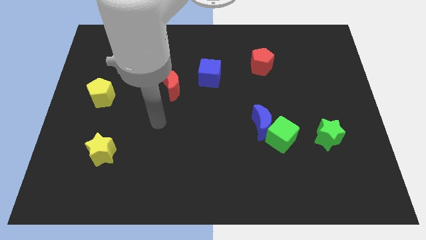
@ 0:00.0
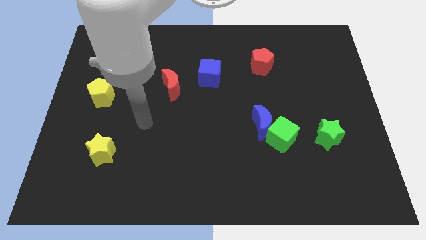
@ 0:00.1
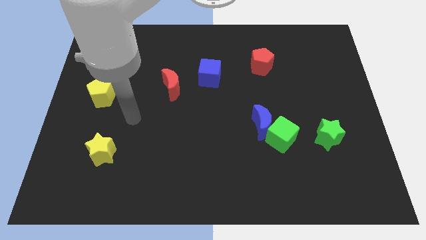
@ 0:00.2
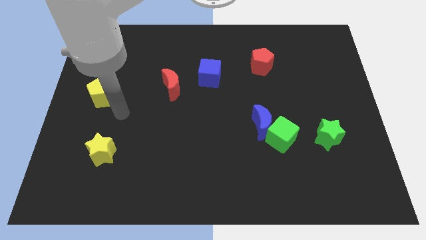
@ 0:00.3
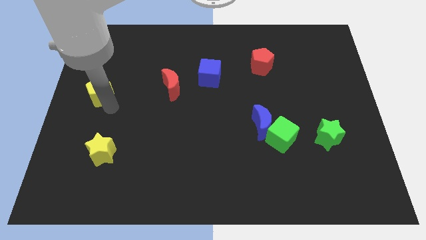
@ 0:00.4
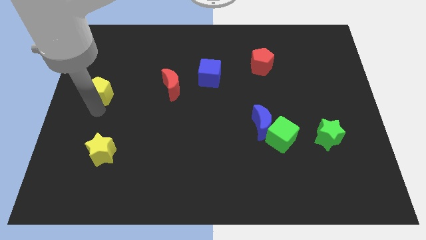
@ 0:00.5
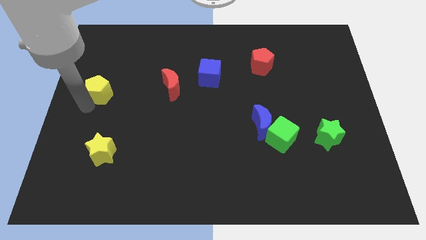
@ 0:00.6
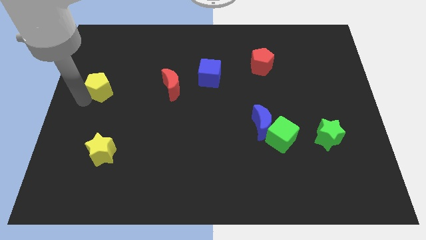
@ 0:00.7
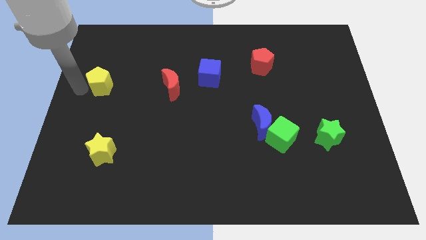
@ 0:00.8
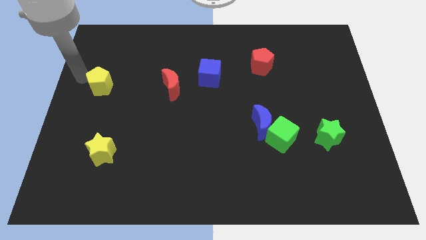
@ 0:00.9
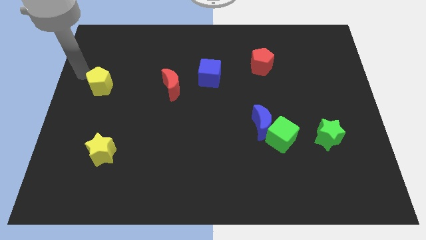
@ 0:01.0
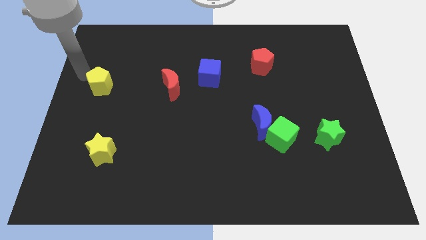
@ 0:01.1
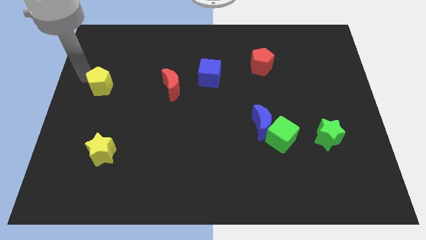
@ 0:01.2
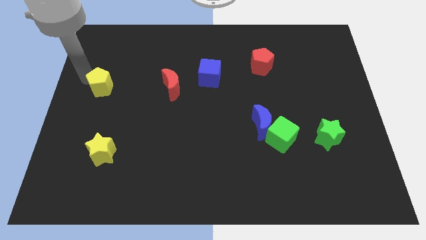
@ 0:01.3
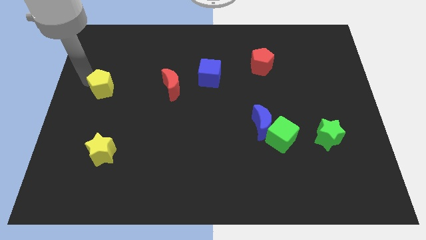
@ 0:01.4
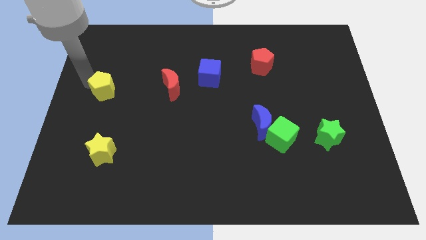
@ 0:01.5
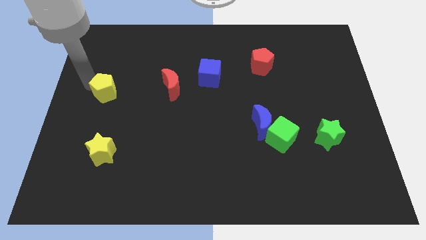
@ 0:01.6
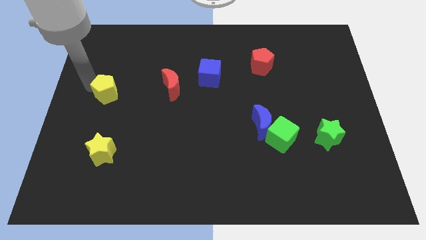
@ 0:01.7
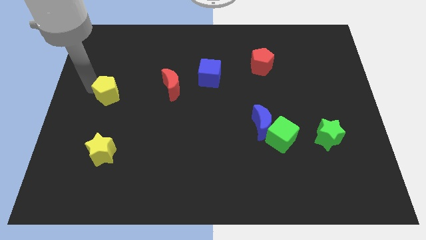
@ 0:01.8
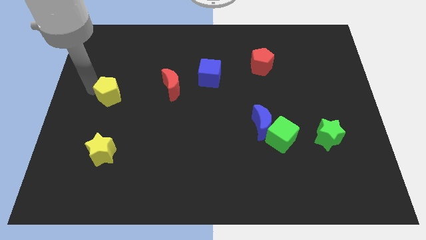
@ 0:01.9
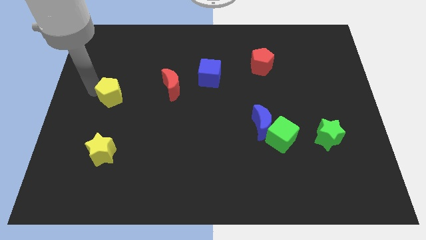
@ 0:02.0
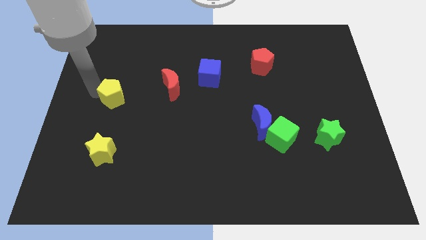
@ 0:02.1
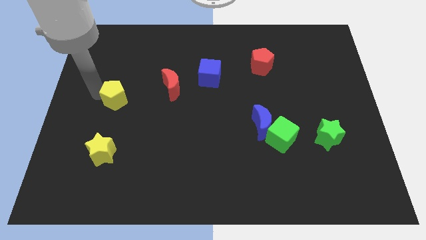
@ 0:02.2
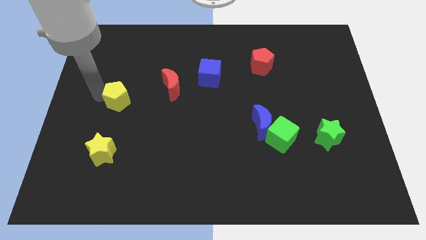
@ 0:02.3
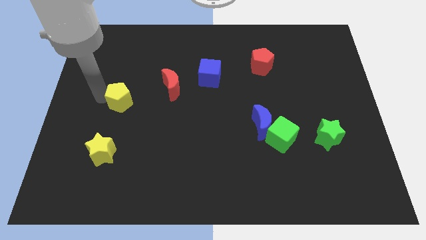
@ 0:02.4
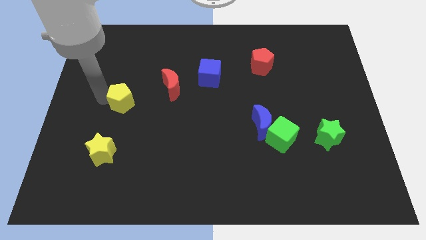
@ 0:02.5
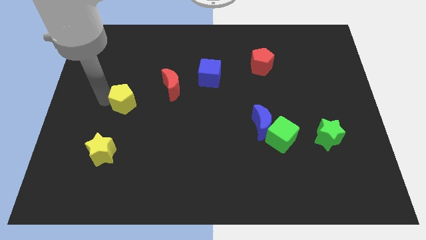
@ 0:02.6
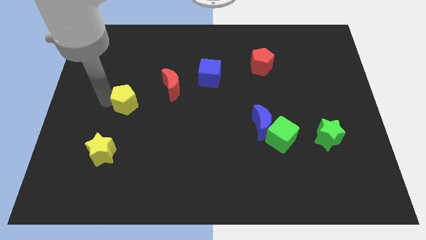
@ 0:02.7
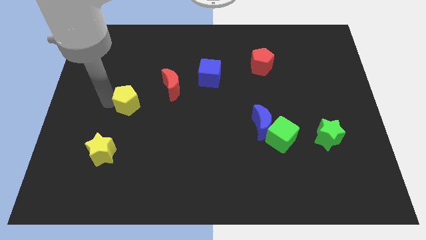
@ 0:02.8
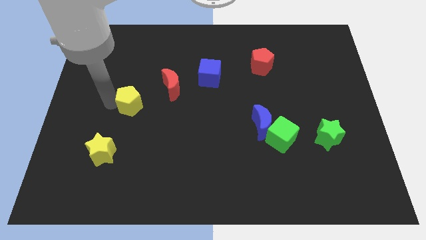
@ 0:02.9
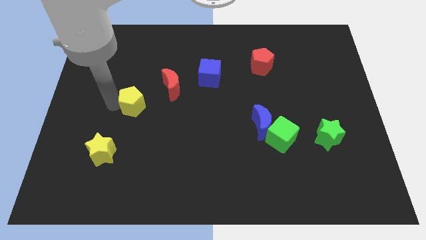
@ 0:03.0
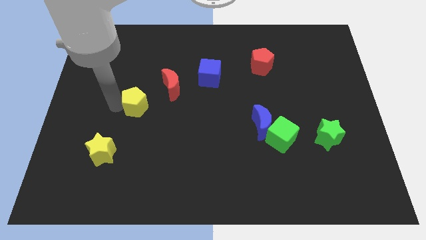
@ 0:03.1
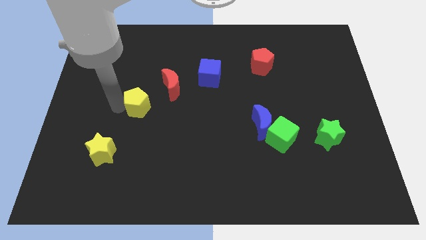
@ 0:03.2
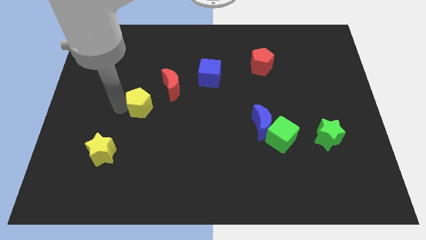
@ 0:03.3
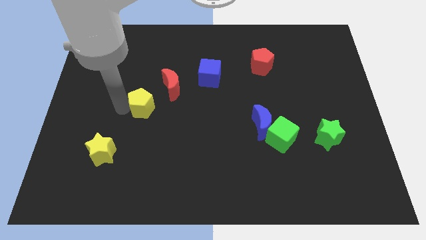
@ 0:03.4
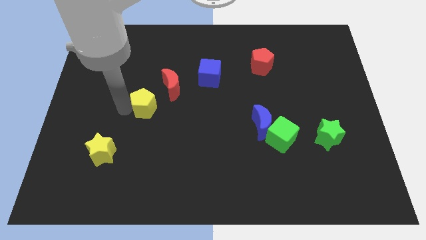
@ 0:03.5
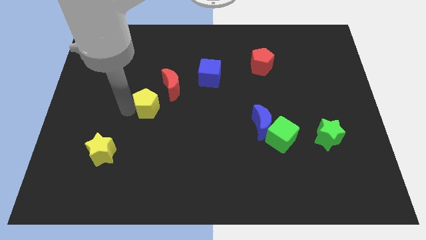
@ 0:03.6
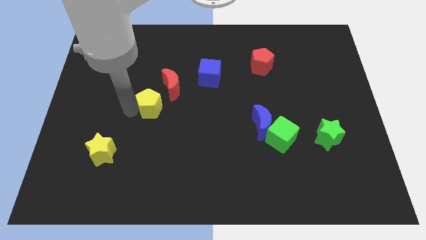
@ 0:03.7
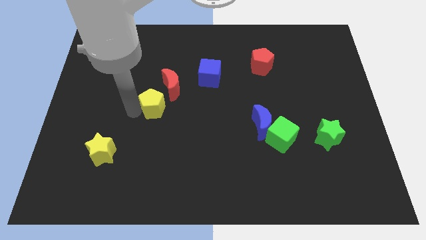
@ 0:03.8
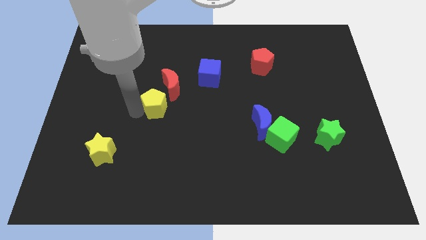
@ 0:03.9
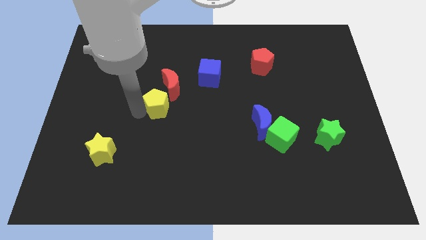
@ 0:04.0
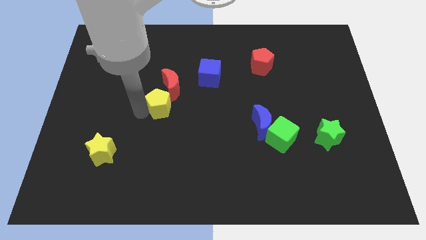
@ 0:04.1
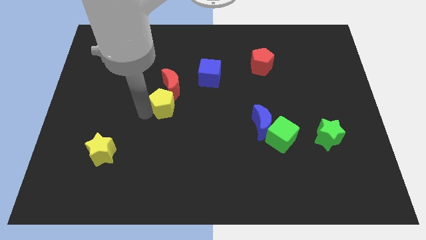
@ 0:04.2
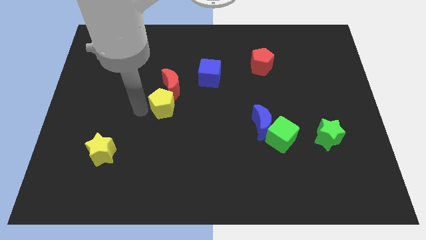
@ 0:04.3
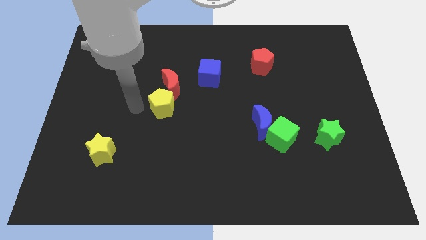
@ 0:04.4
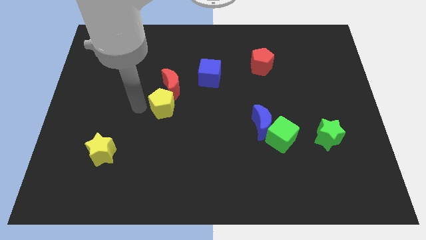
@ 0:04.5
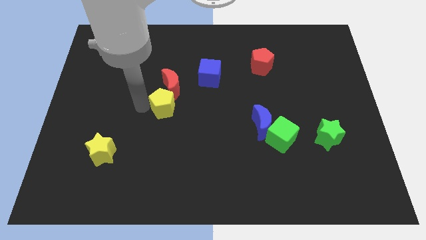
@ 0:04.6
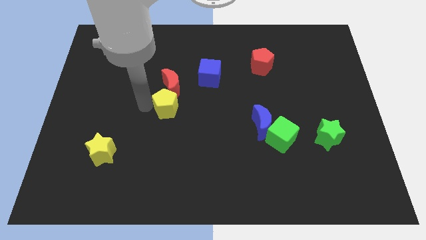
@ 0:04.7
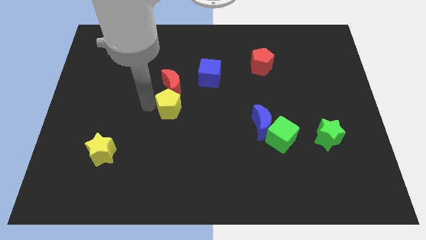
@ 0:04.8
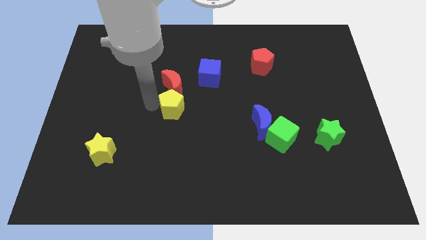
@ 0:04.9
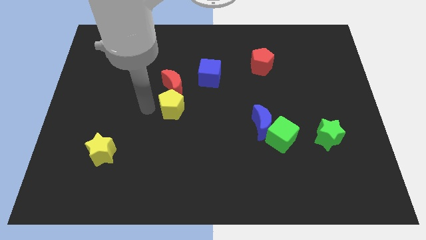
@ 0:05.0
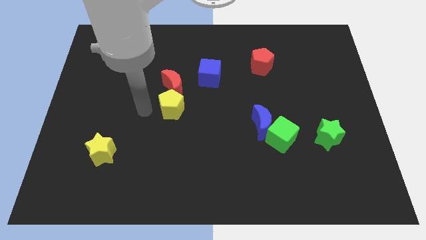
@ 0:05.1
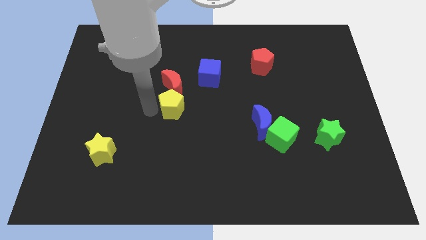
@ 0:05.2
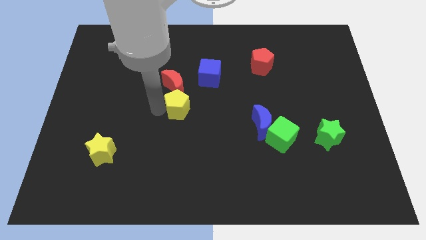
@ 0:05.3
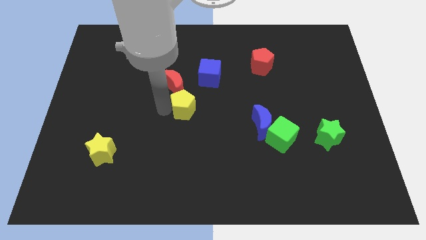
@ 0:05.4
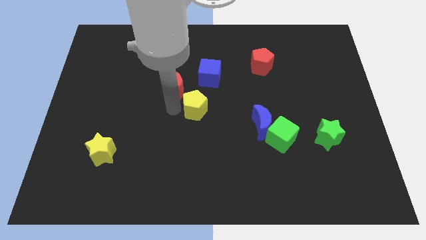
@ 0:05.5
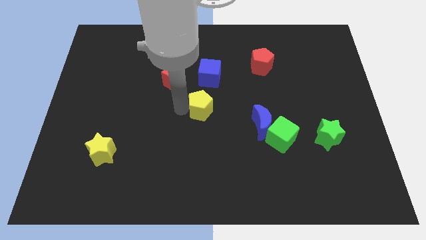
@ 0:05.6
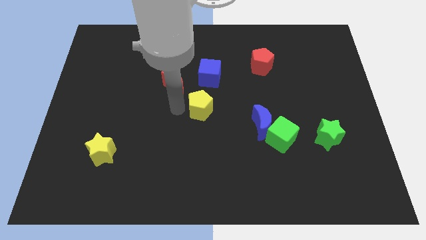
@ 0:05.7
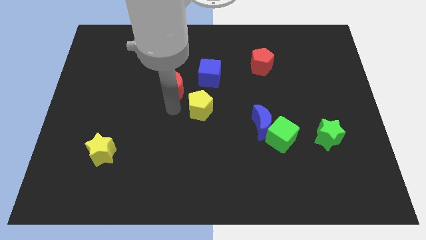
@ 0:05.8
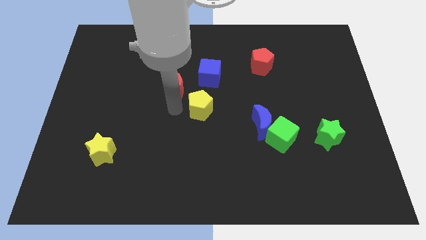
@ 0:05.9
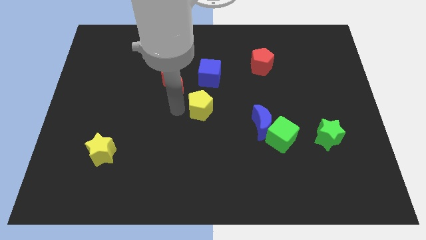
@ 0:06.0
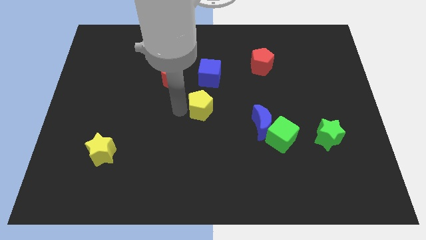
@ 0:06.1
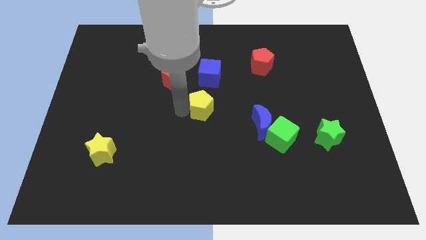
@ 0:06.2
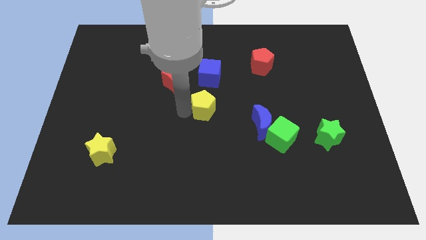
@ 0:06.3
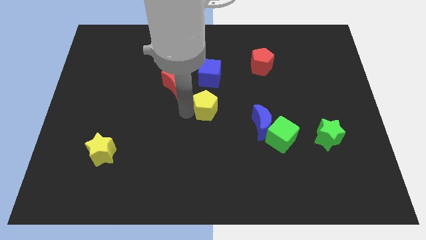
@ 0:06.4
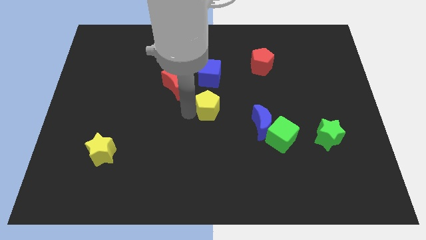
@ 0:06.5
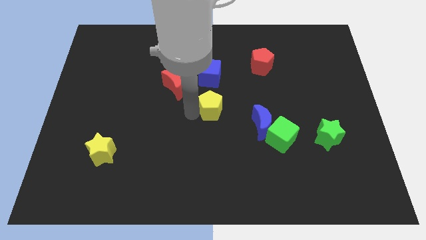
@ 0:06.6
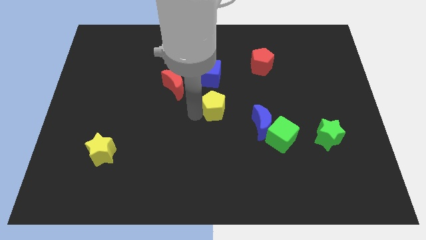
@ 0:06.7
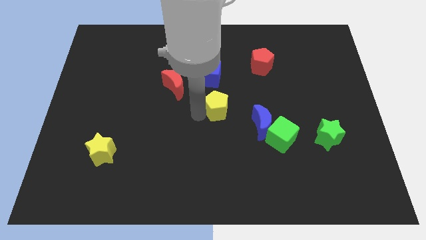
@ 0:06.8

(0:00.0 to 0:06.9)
slide the yellow pentagon to the top left side of the blue moon

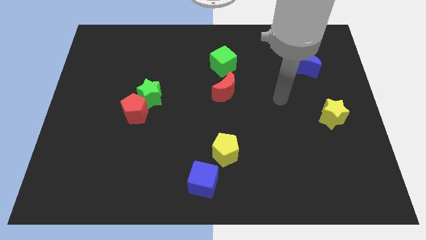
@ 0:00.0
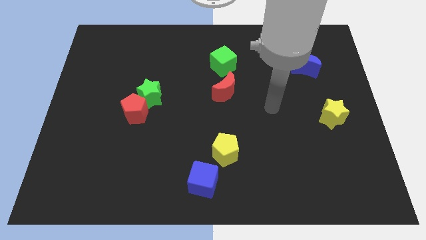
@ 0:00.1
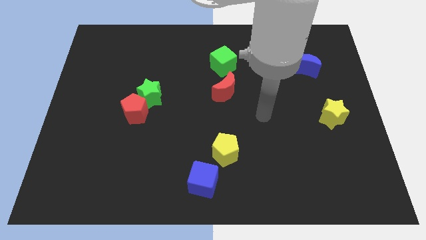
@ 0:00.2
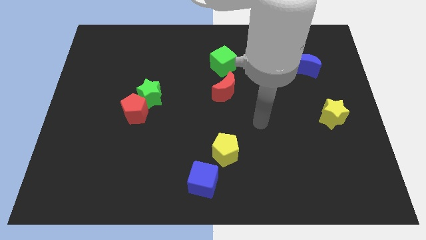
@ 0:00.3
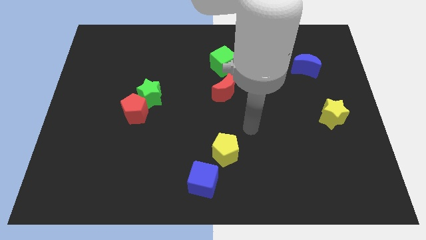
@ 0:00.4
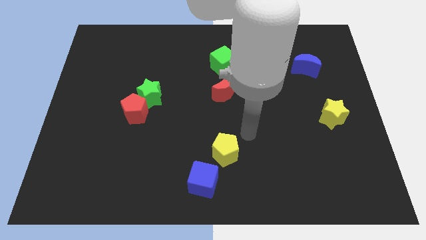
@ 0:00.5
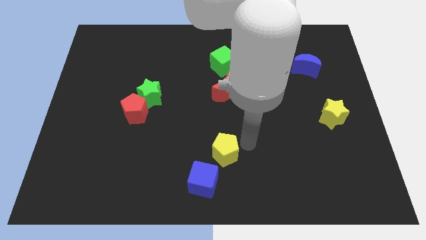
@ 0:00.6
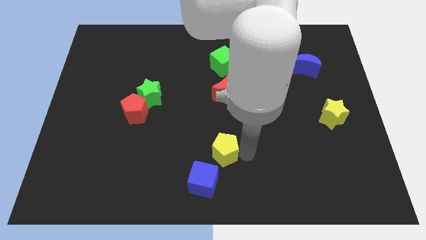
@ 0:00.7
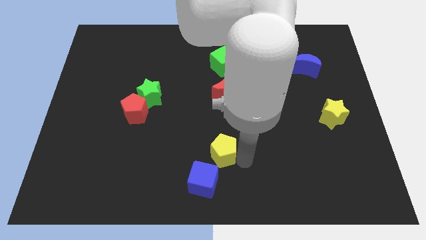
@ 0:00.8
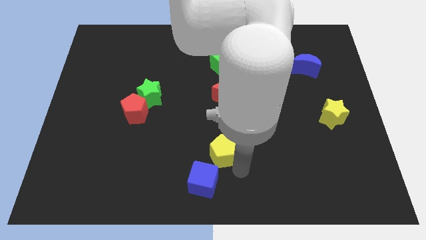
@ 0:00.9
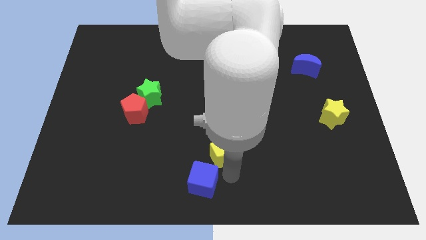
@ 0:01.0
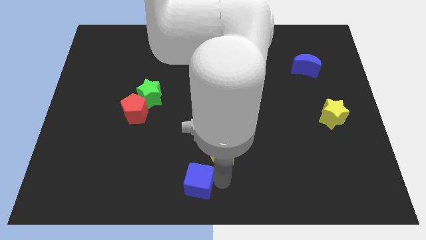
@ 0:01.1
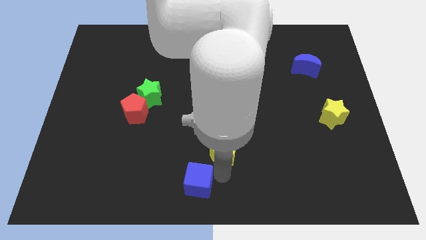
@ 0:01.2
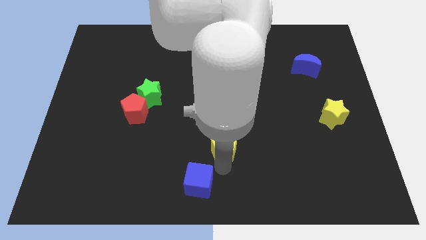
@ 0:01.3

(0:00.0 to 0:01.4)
slide the yellow pentagon below the red moon
